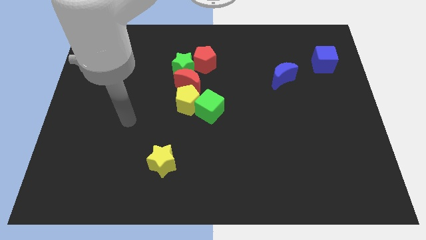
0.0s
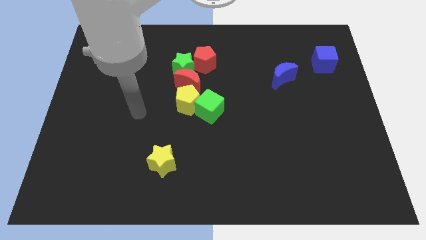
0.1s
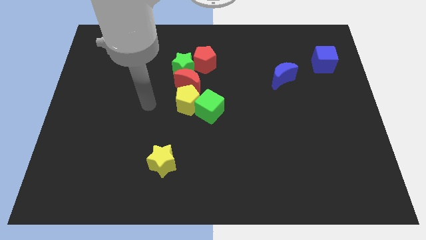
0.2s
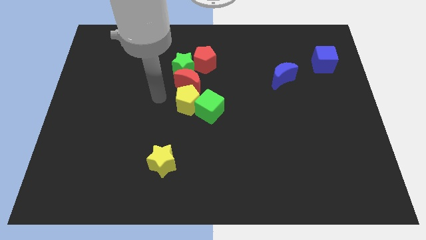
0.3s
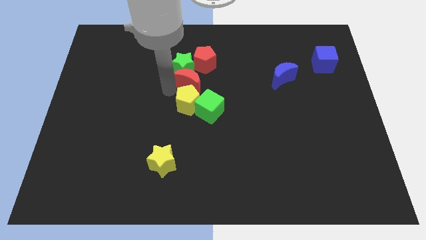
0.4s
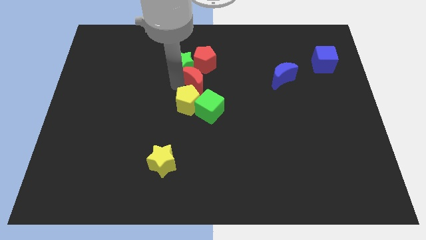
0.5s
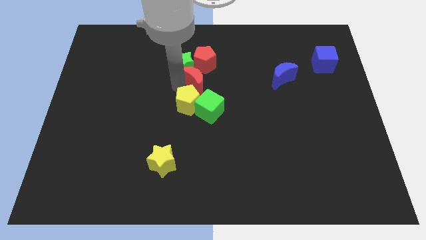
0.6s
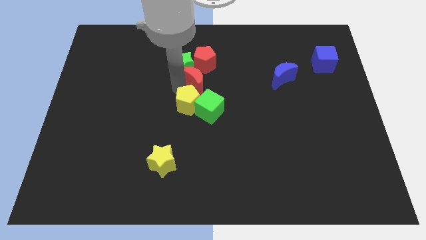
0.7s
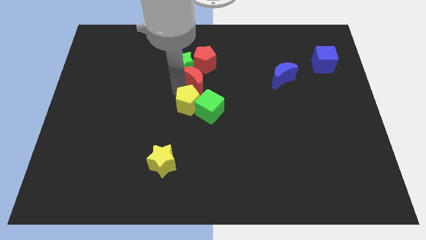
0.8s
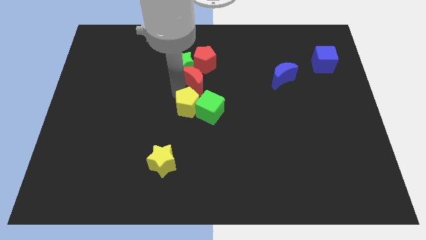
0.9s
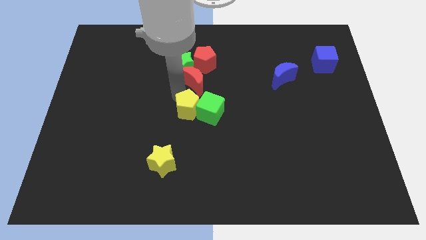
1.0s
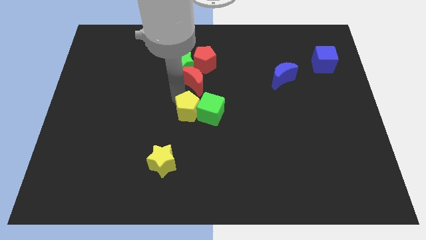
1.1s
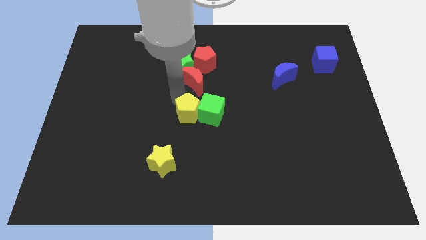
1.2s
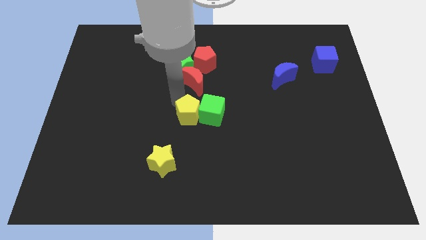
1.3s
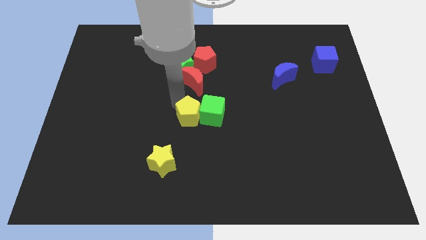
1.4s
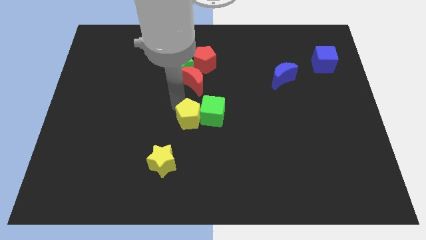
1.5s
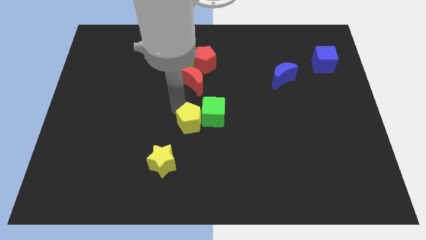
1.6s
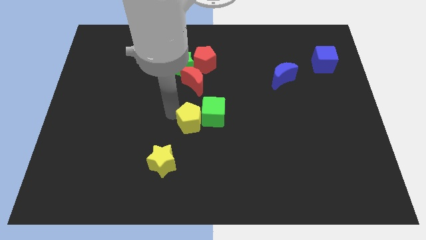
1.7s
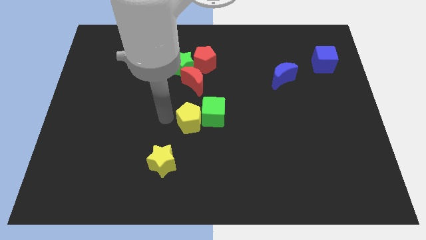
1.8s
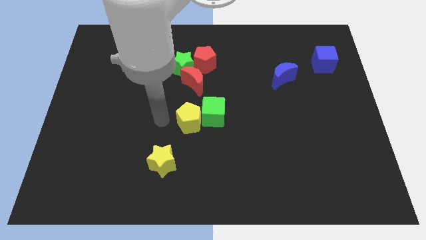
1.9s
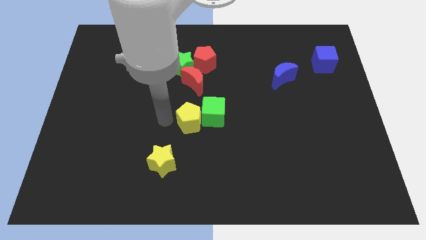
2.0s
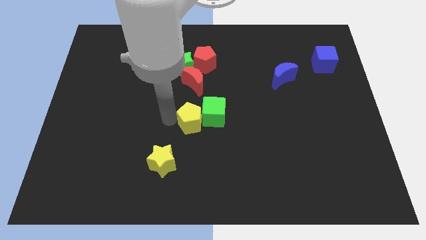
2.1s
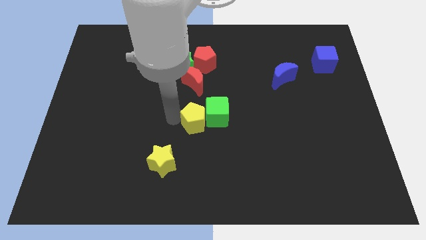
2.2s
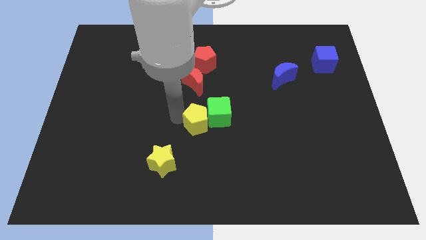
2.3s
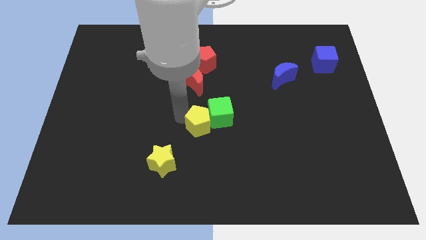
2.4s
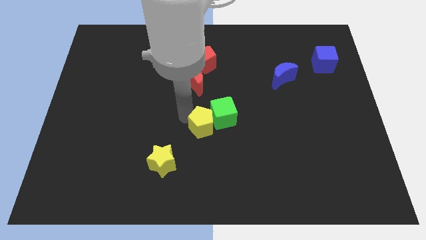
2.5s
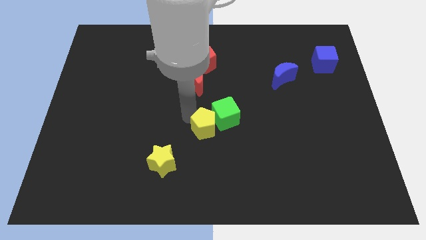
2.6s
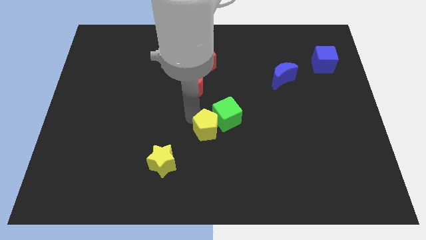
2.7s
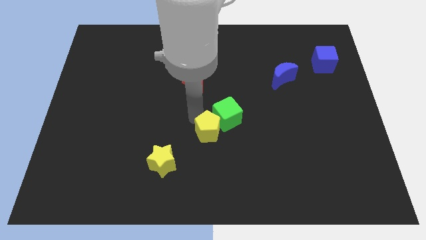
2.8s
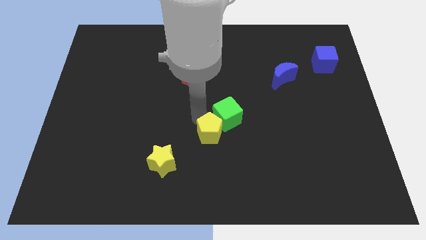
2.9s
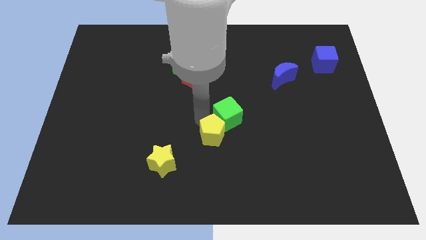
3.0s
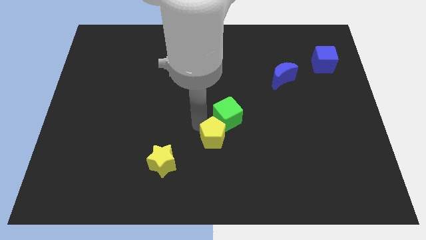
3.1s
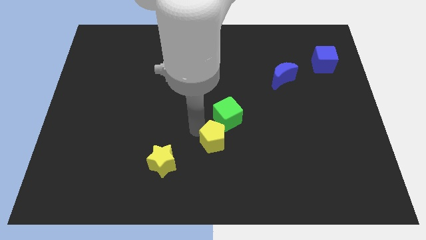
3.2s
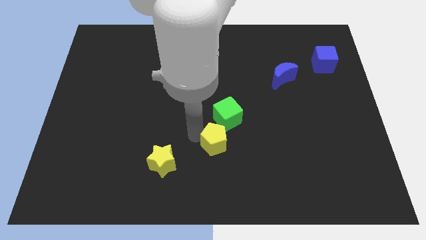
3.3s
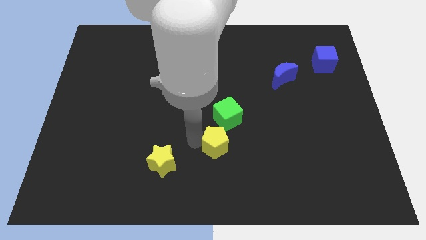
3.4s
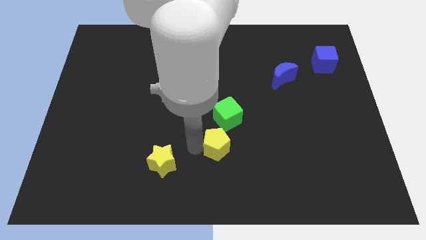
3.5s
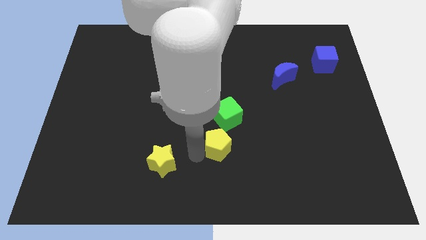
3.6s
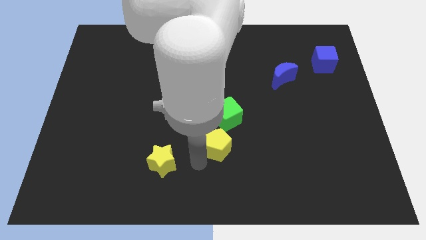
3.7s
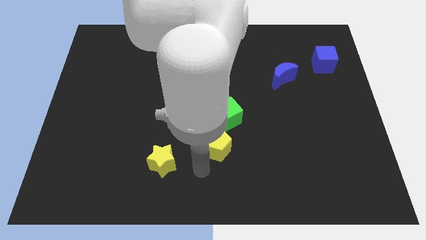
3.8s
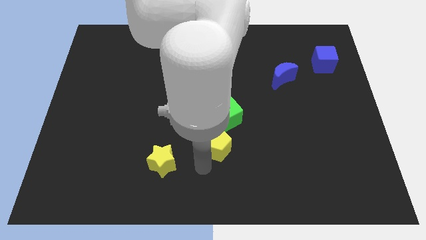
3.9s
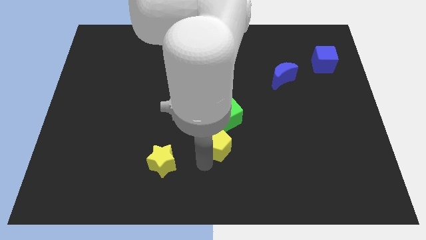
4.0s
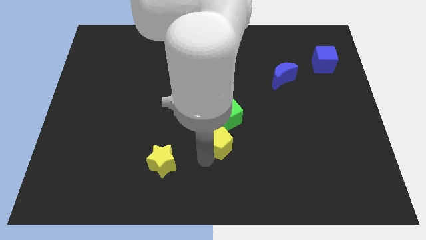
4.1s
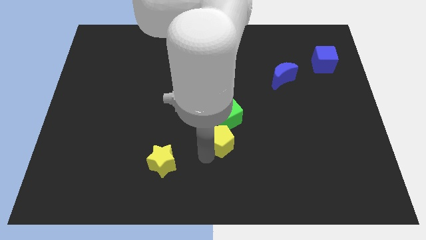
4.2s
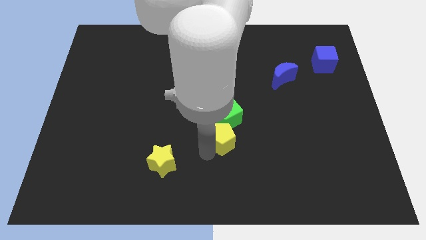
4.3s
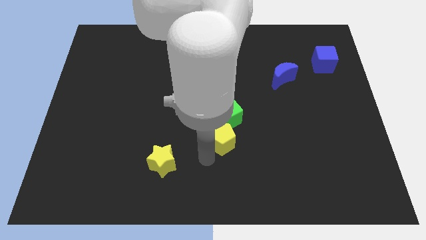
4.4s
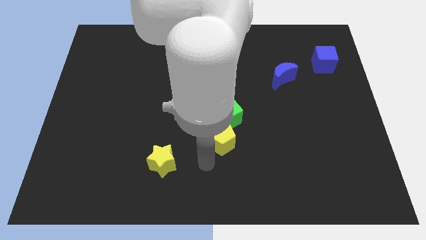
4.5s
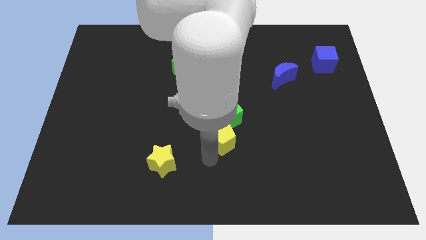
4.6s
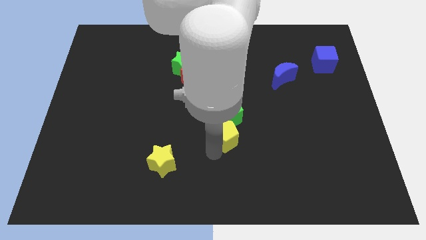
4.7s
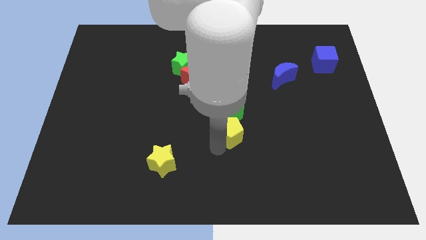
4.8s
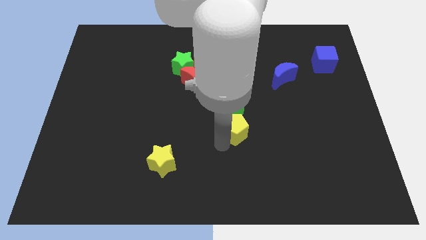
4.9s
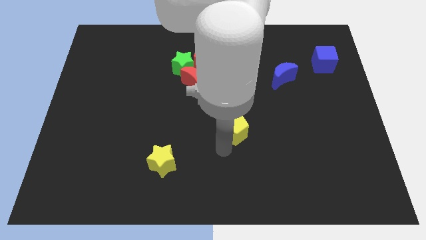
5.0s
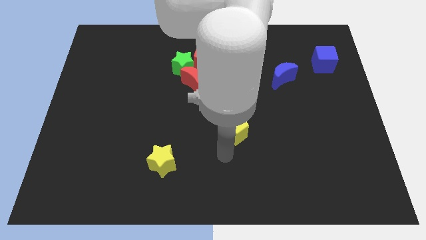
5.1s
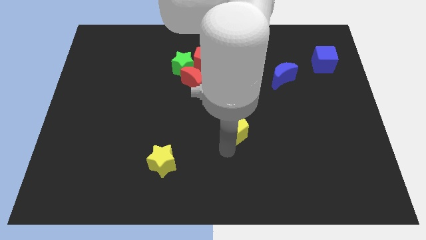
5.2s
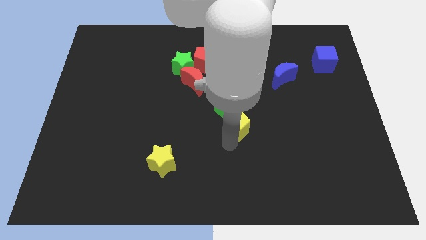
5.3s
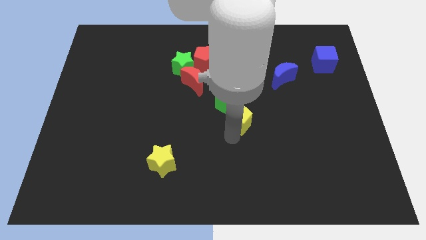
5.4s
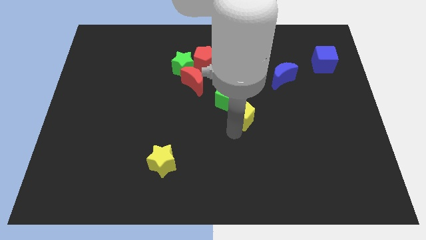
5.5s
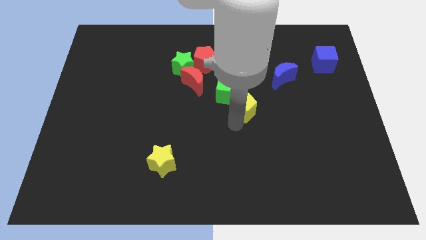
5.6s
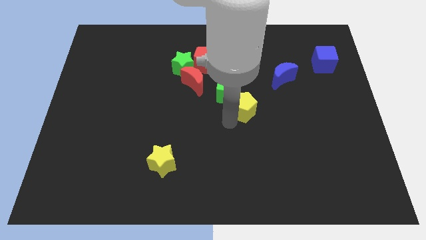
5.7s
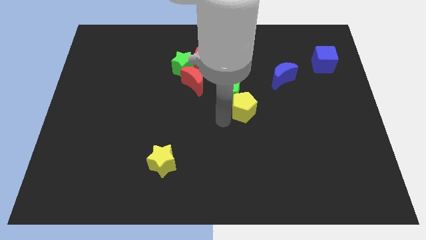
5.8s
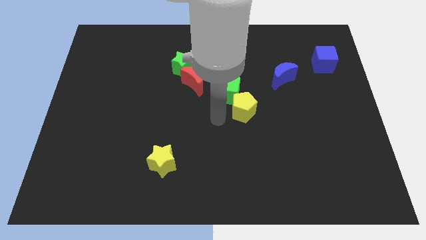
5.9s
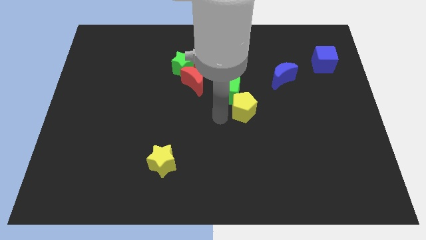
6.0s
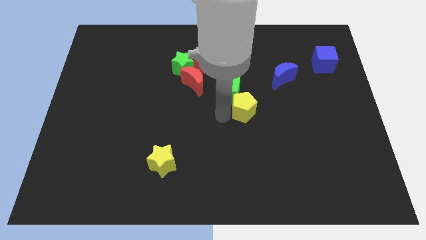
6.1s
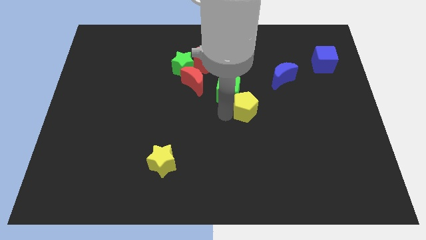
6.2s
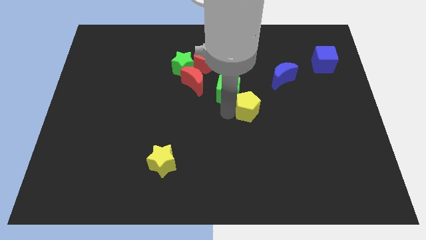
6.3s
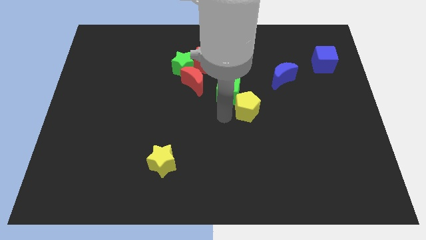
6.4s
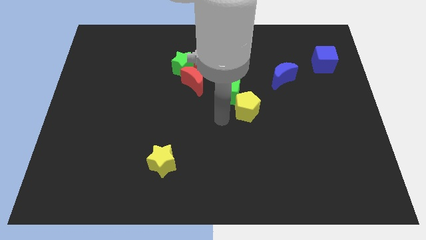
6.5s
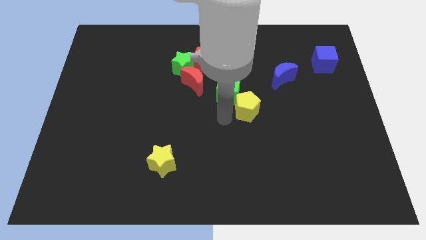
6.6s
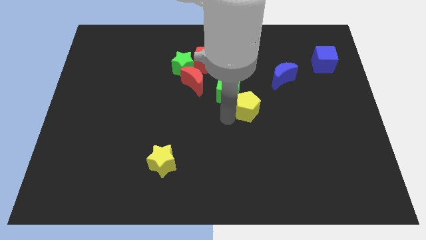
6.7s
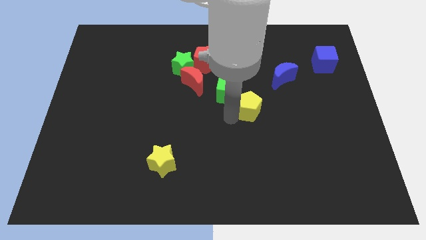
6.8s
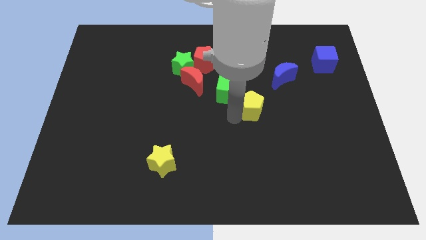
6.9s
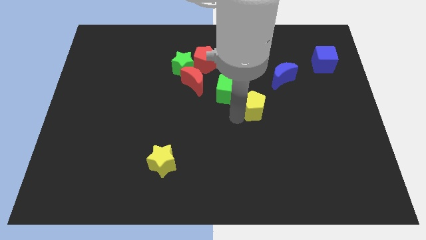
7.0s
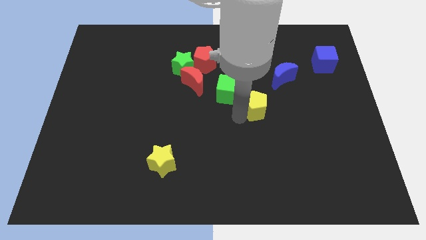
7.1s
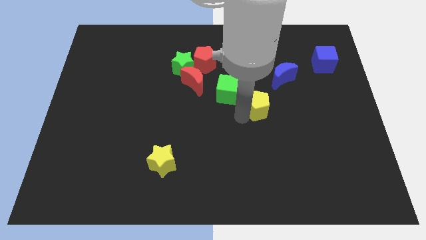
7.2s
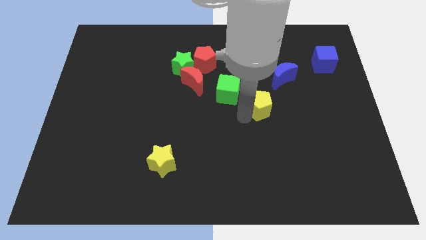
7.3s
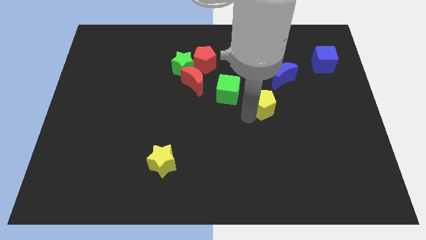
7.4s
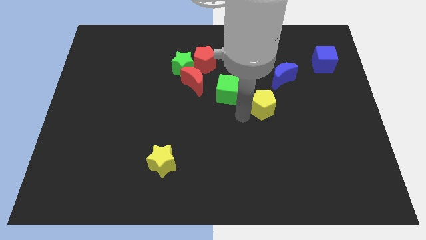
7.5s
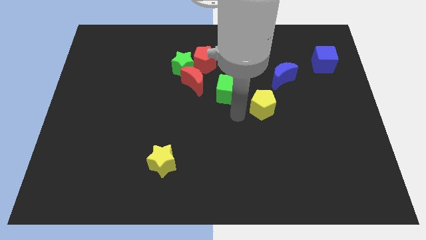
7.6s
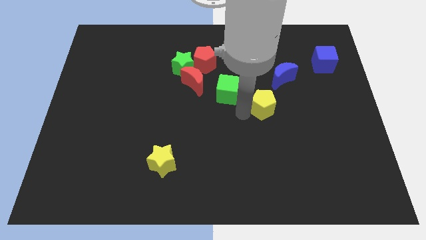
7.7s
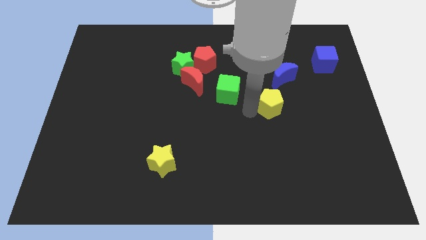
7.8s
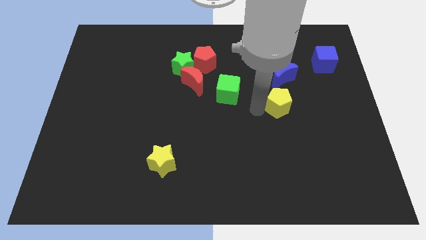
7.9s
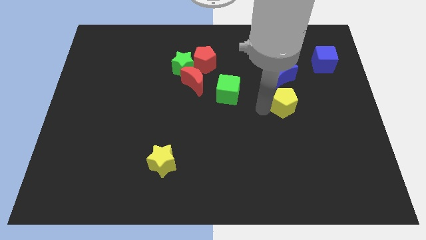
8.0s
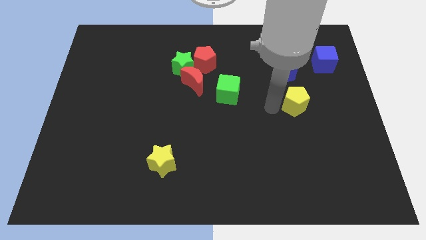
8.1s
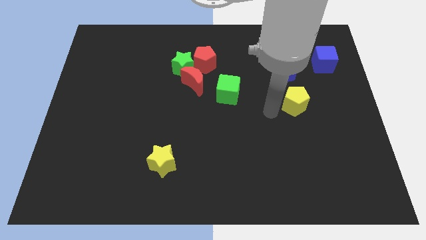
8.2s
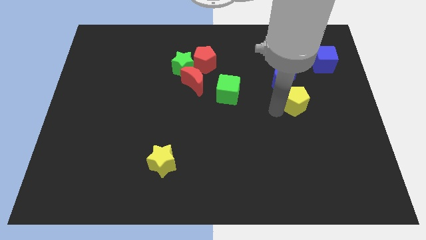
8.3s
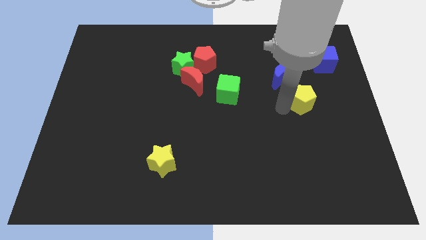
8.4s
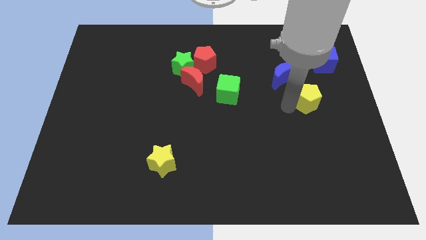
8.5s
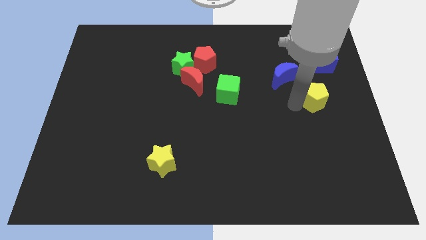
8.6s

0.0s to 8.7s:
move the yellow pentagon to the bottom side of the blue cube
